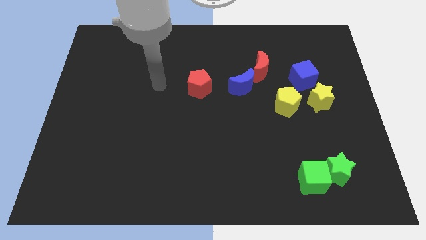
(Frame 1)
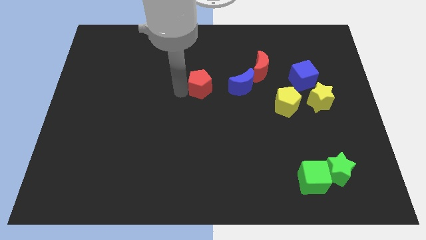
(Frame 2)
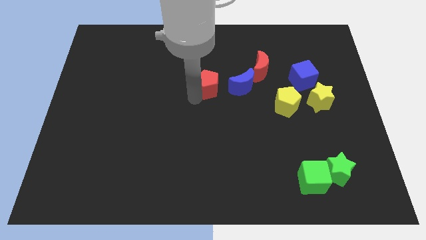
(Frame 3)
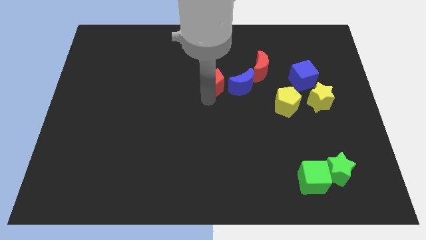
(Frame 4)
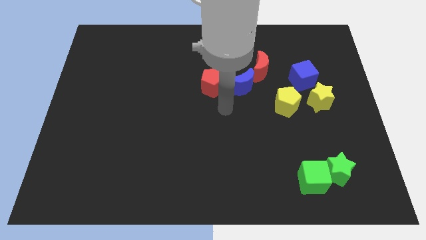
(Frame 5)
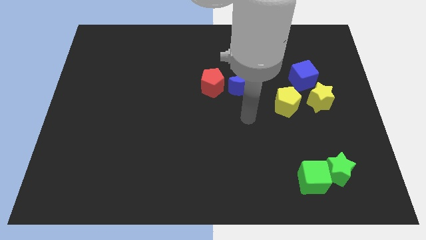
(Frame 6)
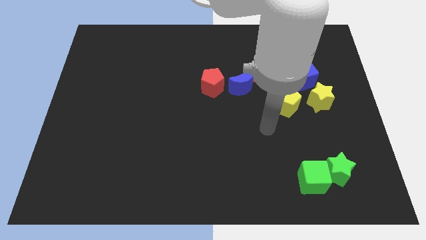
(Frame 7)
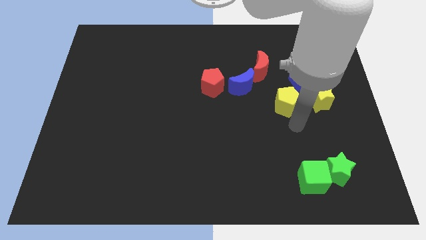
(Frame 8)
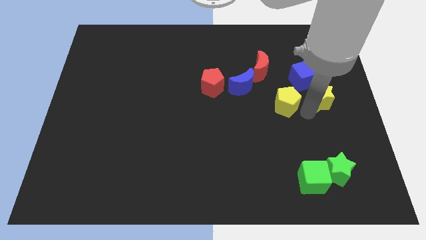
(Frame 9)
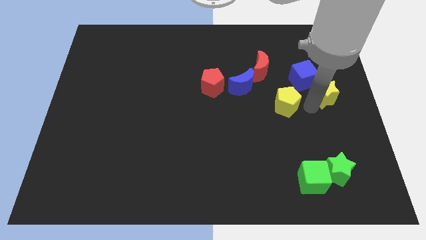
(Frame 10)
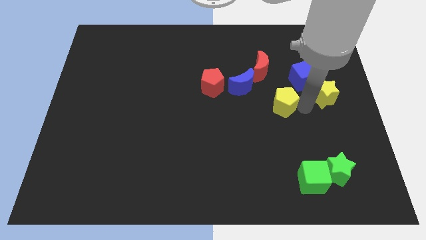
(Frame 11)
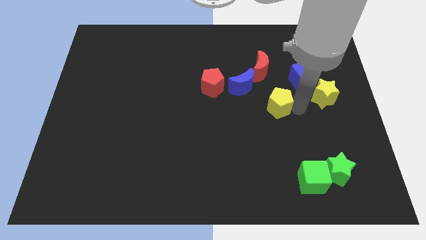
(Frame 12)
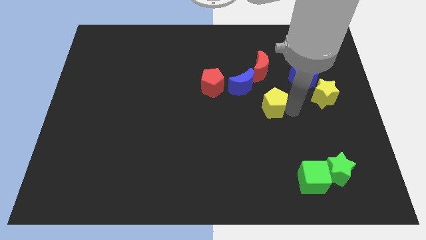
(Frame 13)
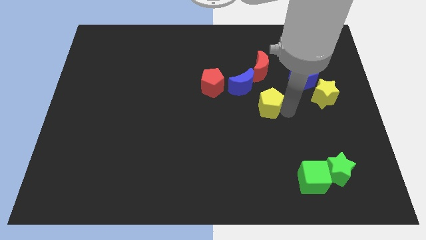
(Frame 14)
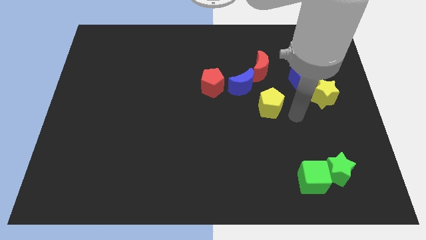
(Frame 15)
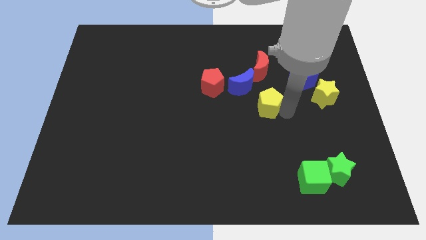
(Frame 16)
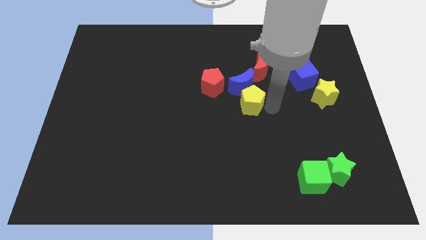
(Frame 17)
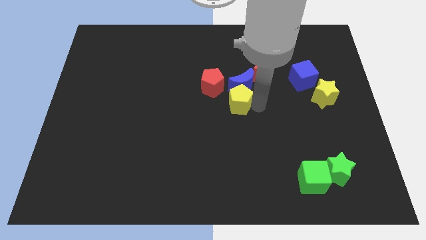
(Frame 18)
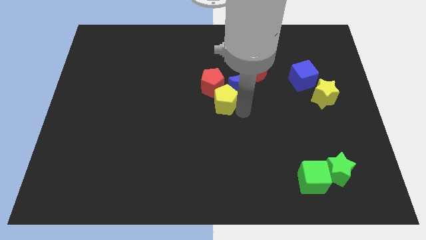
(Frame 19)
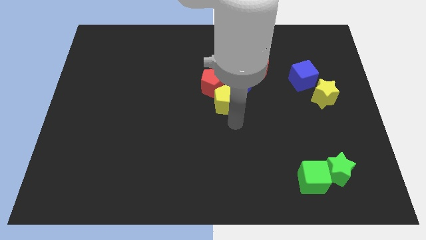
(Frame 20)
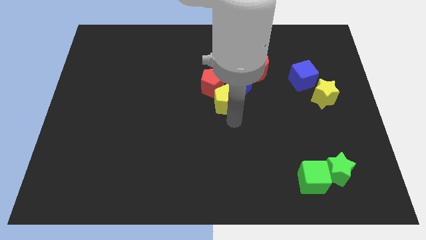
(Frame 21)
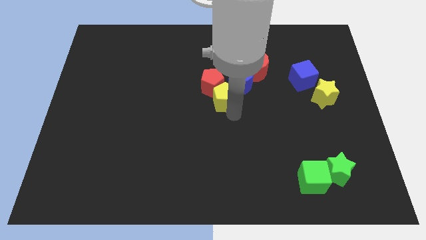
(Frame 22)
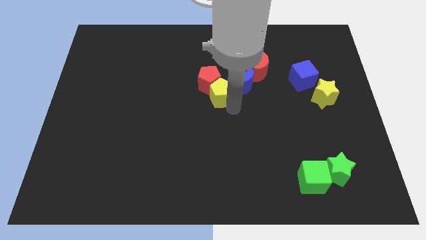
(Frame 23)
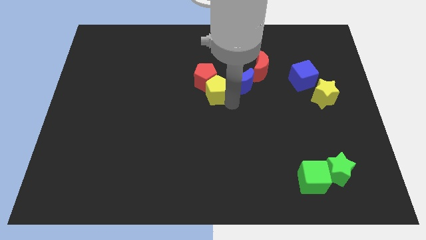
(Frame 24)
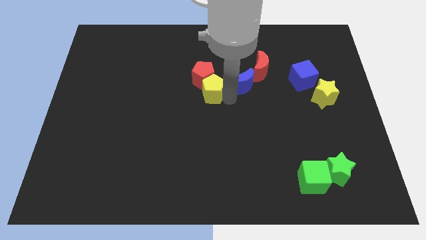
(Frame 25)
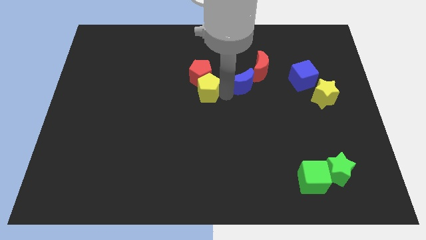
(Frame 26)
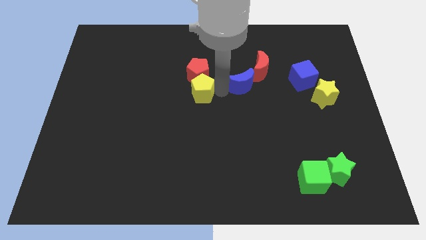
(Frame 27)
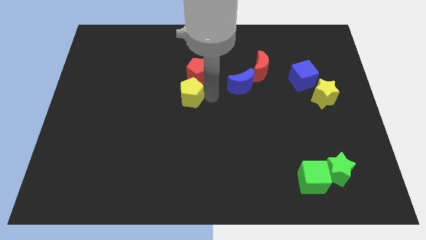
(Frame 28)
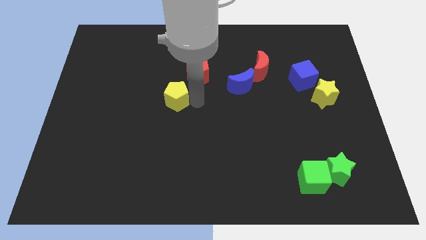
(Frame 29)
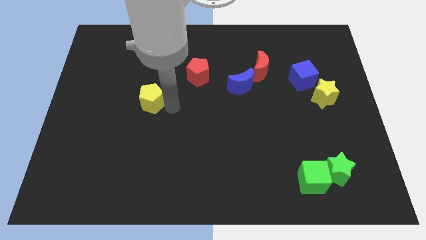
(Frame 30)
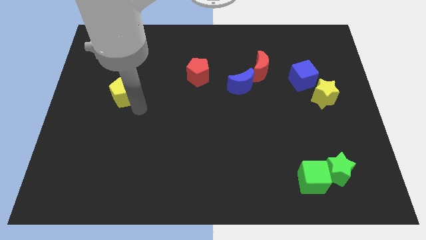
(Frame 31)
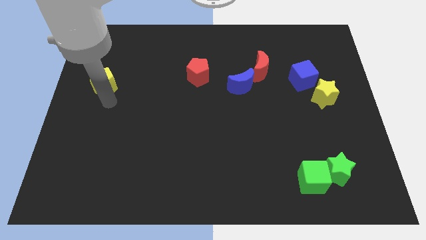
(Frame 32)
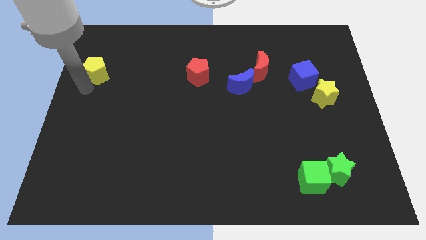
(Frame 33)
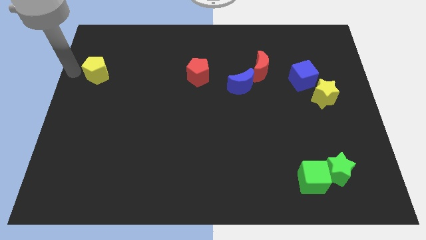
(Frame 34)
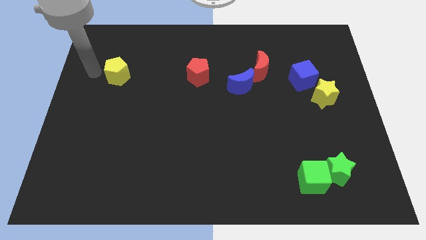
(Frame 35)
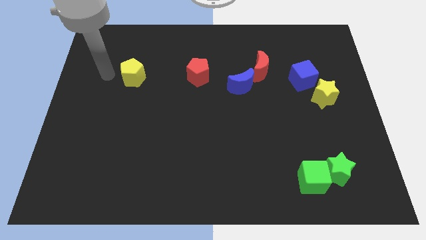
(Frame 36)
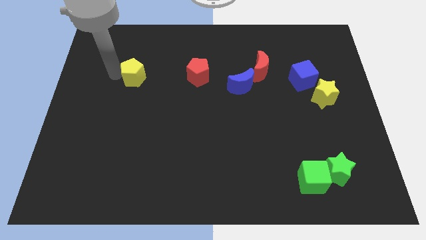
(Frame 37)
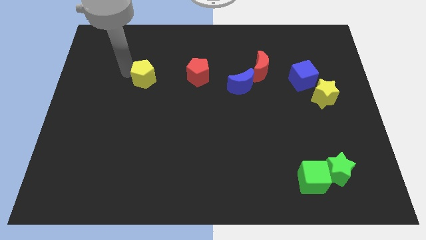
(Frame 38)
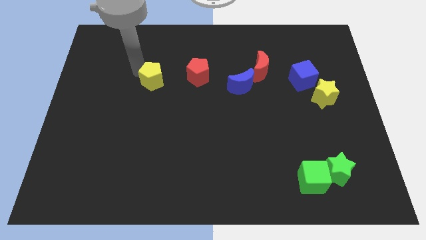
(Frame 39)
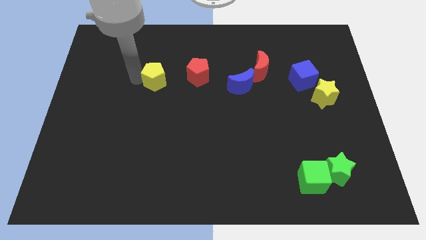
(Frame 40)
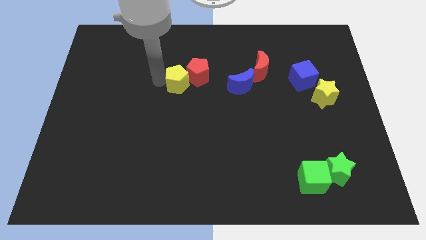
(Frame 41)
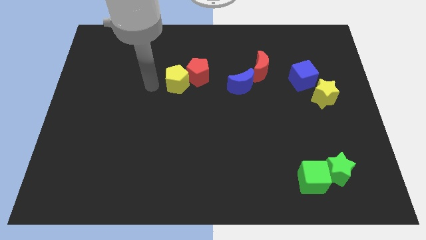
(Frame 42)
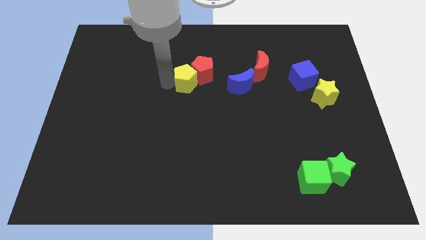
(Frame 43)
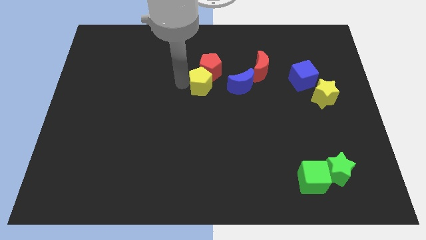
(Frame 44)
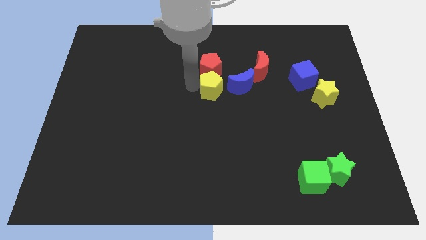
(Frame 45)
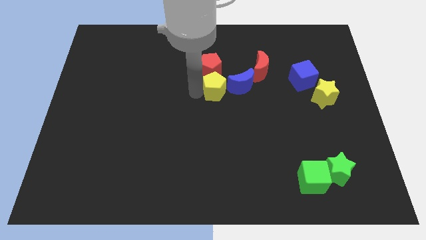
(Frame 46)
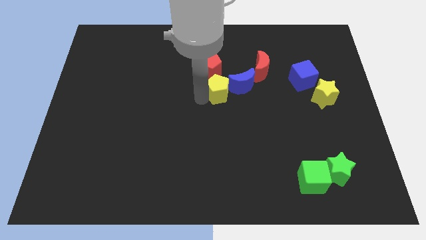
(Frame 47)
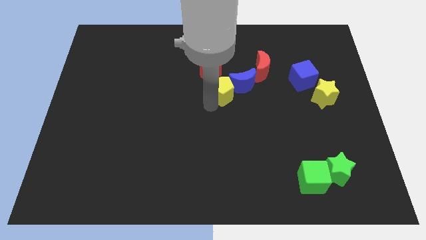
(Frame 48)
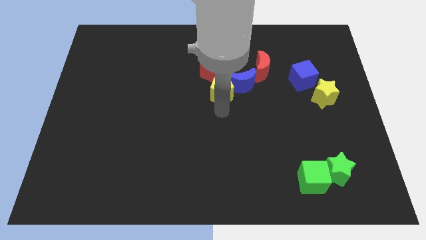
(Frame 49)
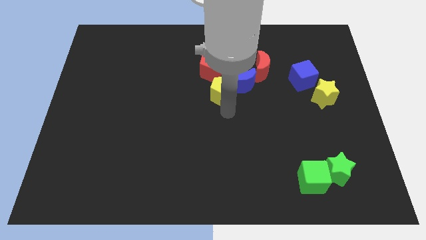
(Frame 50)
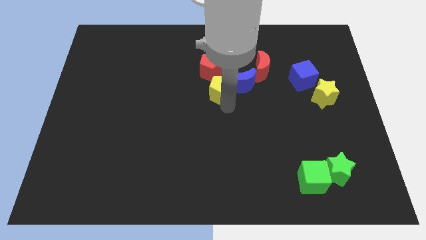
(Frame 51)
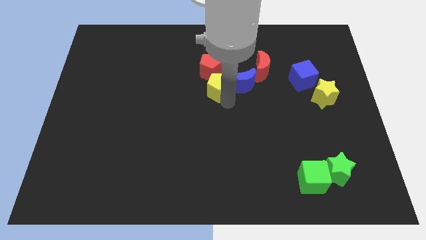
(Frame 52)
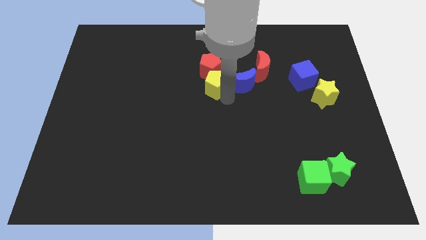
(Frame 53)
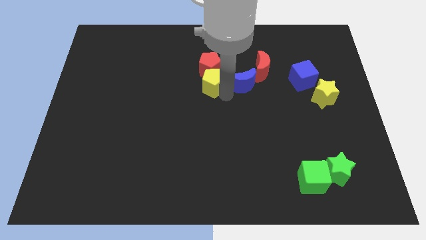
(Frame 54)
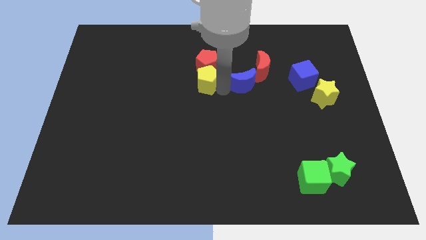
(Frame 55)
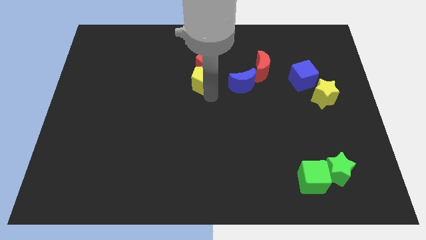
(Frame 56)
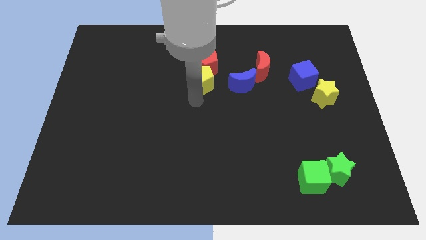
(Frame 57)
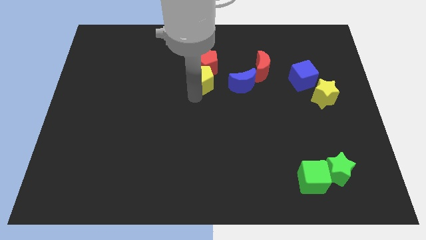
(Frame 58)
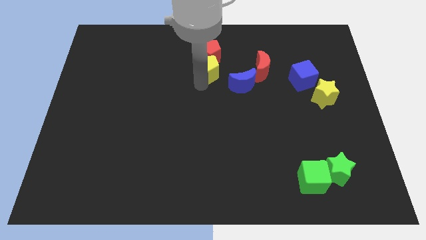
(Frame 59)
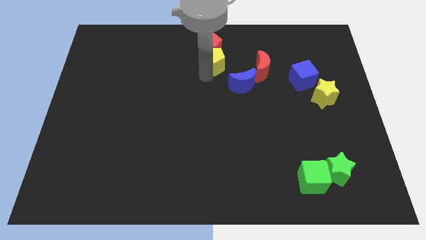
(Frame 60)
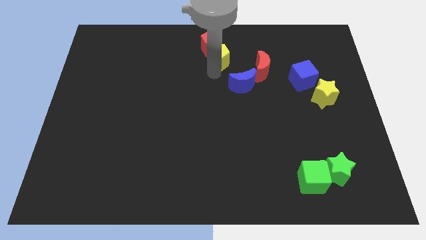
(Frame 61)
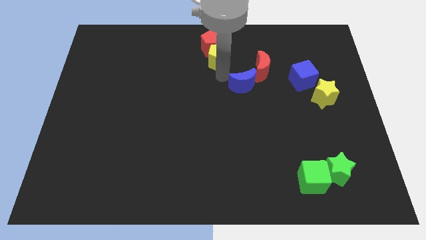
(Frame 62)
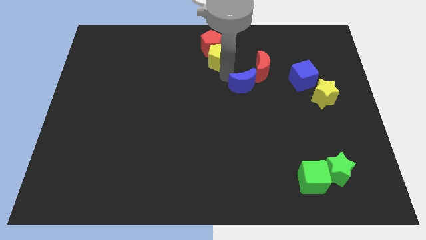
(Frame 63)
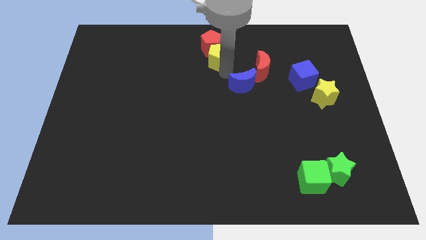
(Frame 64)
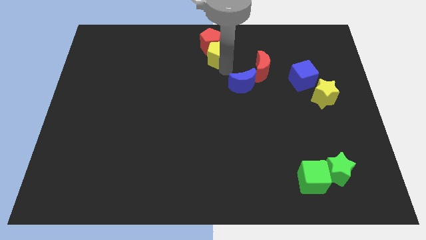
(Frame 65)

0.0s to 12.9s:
slide the yellow pentagon to the top side
